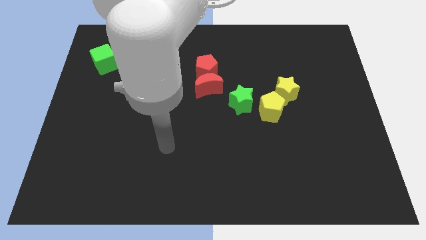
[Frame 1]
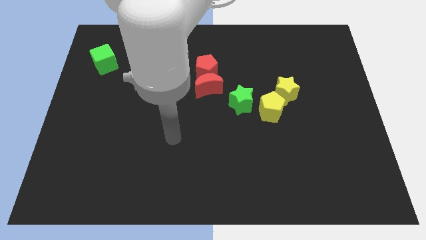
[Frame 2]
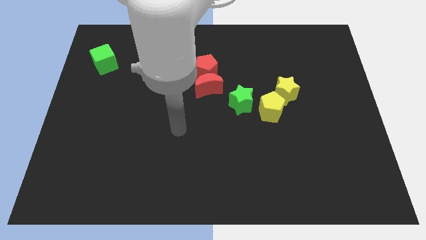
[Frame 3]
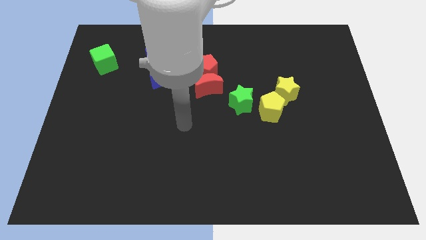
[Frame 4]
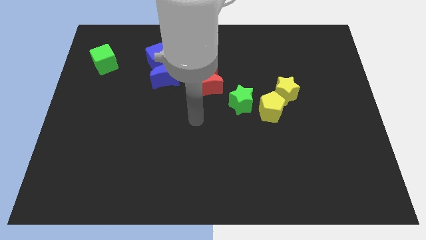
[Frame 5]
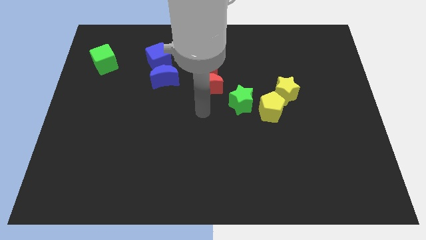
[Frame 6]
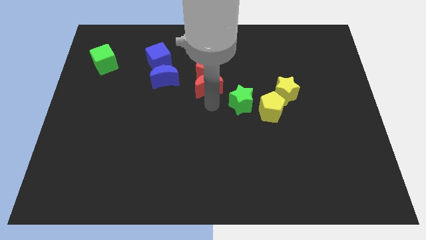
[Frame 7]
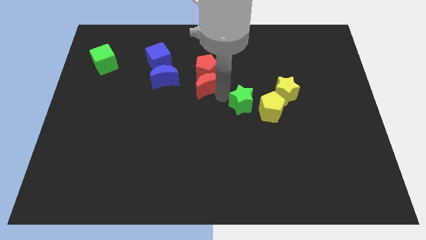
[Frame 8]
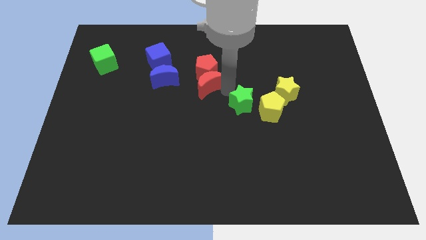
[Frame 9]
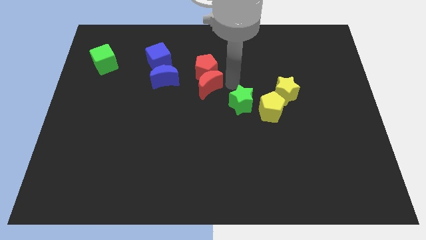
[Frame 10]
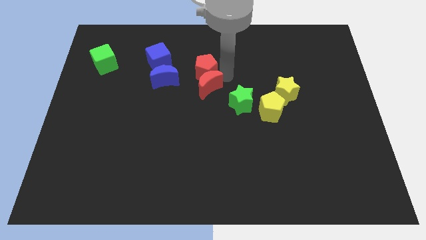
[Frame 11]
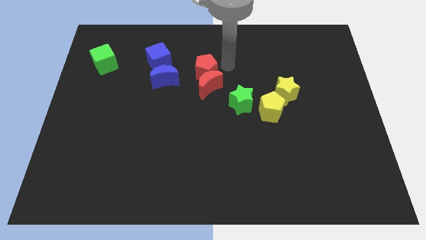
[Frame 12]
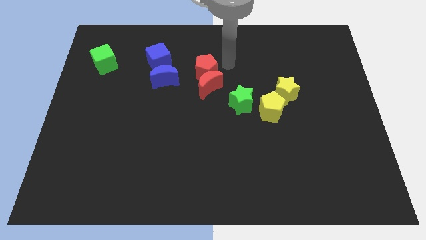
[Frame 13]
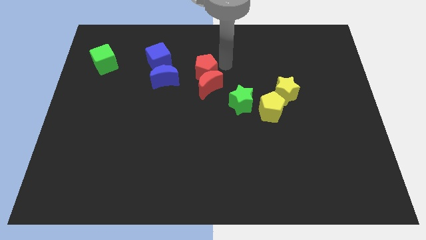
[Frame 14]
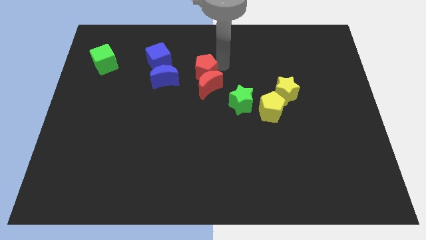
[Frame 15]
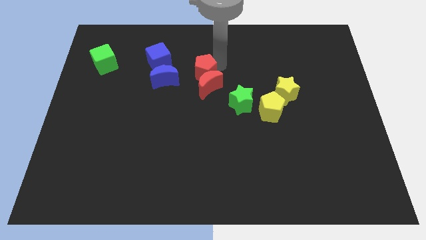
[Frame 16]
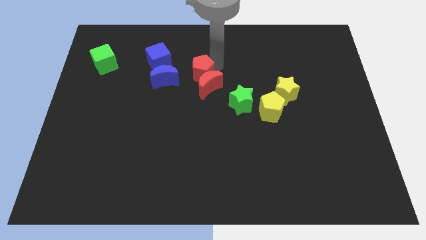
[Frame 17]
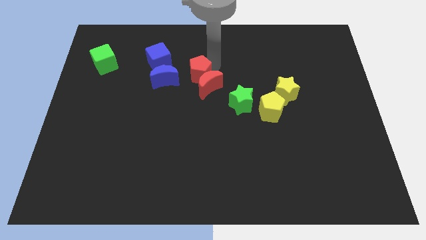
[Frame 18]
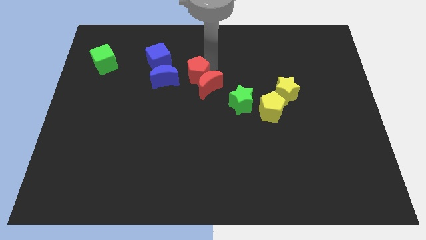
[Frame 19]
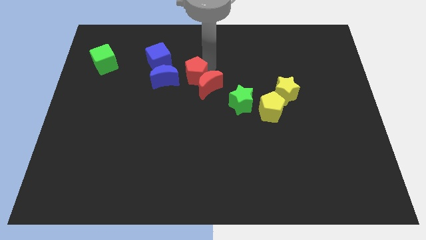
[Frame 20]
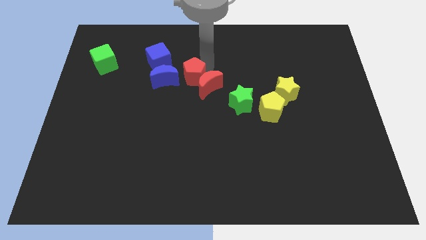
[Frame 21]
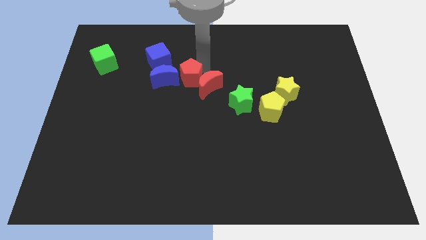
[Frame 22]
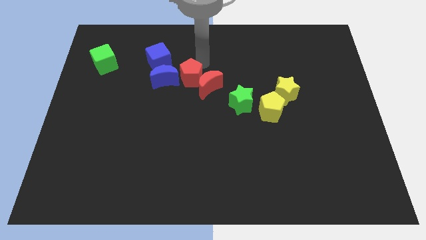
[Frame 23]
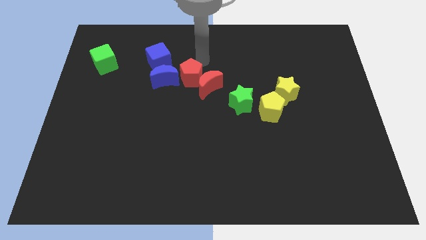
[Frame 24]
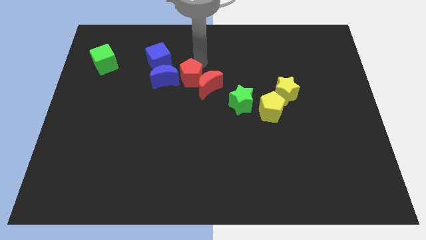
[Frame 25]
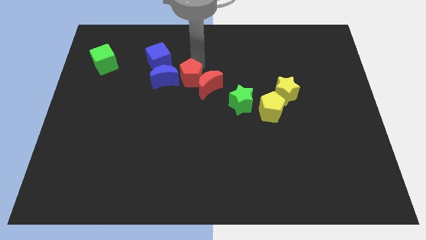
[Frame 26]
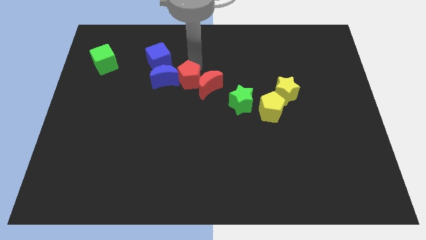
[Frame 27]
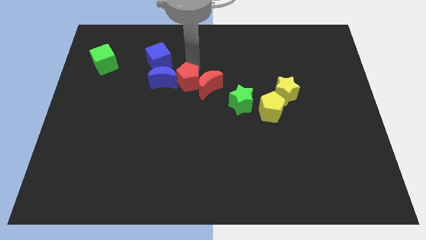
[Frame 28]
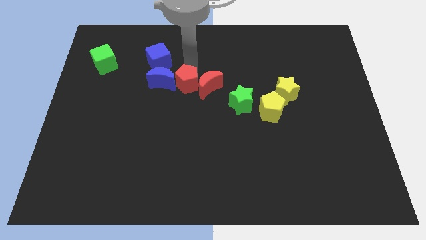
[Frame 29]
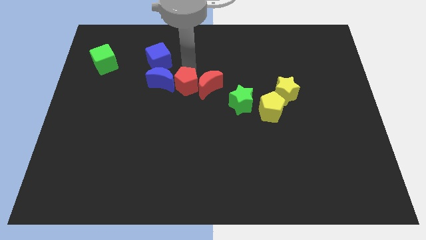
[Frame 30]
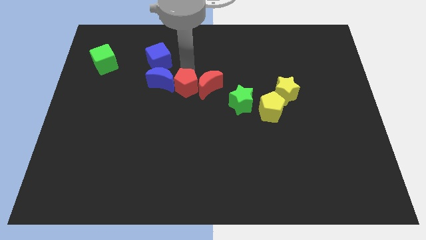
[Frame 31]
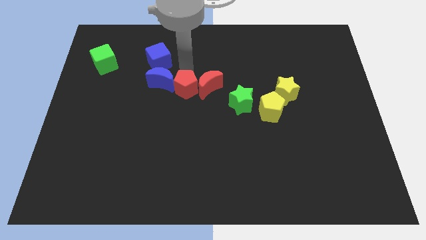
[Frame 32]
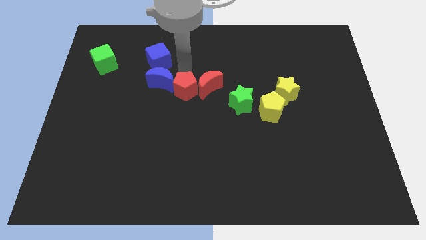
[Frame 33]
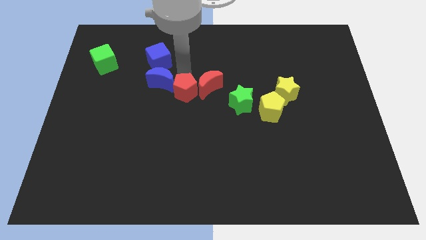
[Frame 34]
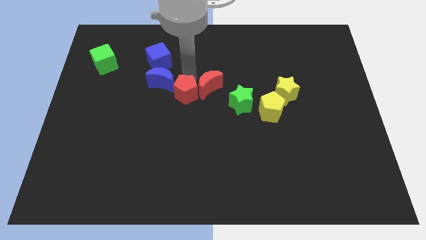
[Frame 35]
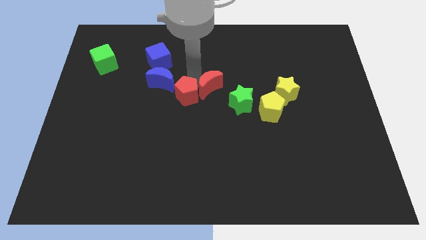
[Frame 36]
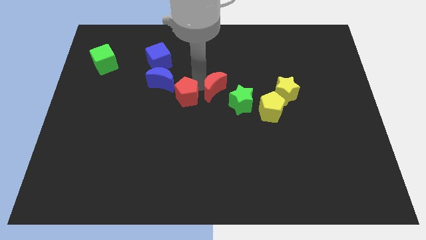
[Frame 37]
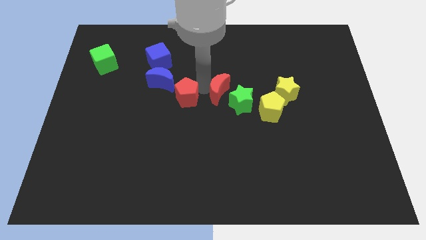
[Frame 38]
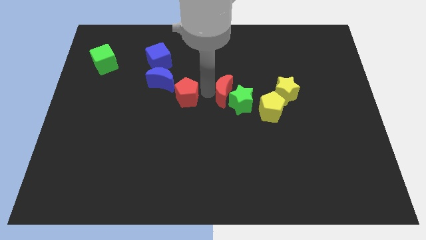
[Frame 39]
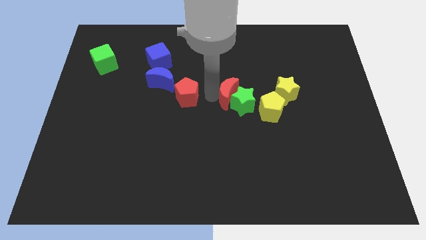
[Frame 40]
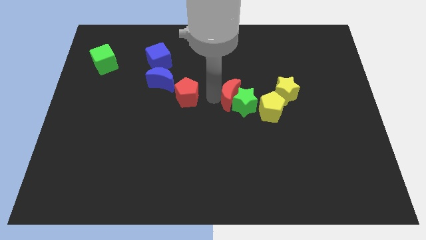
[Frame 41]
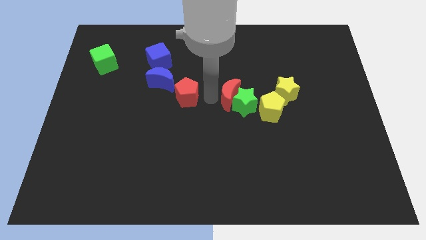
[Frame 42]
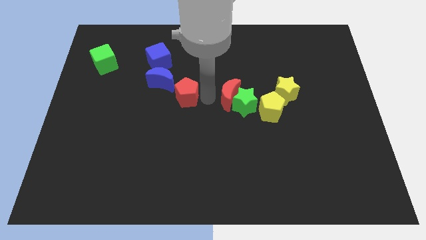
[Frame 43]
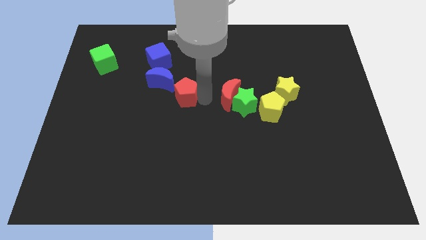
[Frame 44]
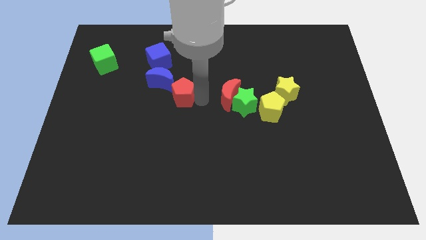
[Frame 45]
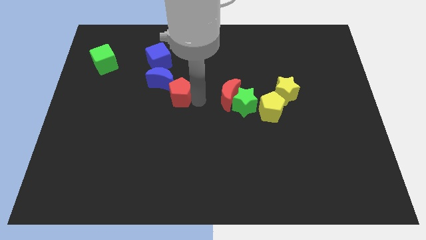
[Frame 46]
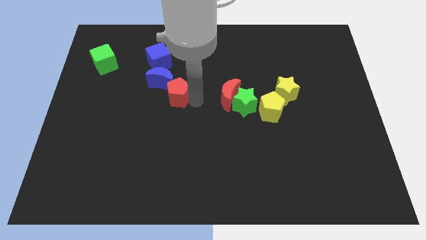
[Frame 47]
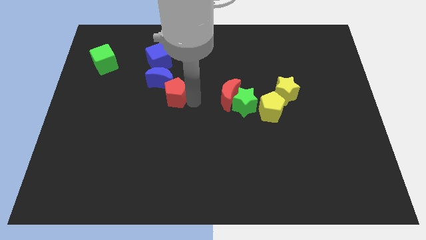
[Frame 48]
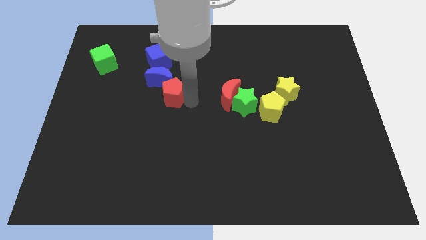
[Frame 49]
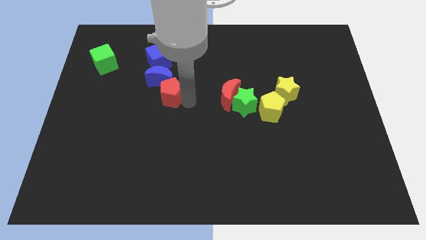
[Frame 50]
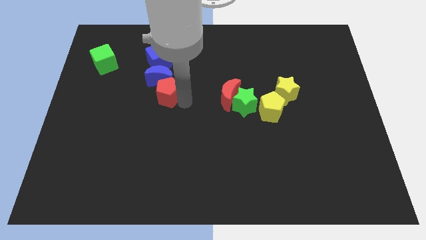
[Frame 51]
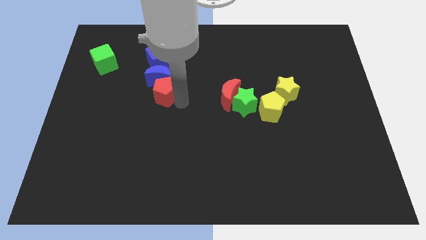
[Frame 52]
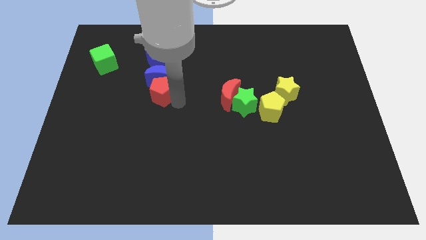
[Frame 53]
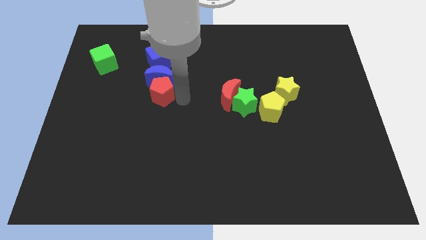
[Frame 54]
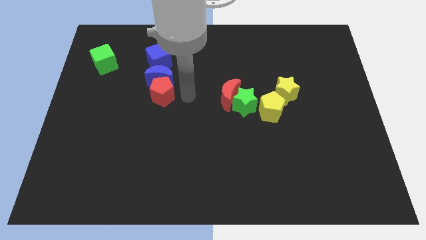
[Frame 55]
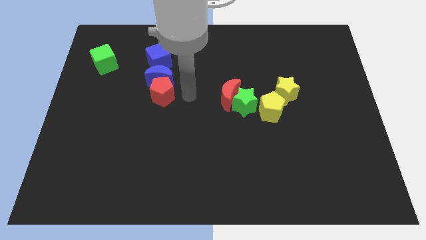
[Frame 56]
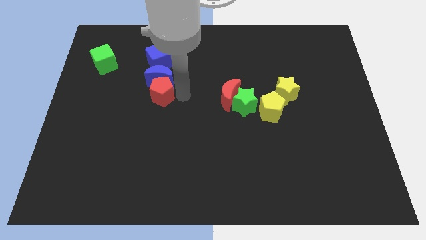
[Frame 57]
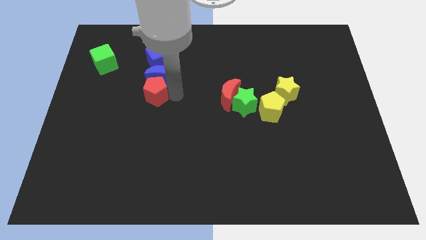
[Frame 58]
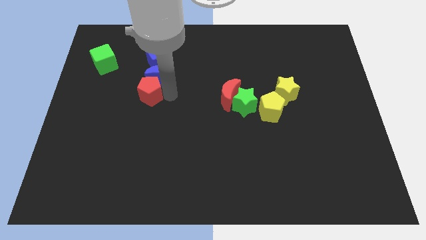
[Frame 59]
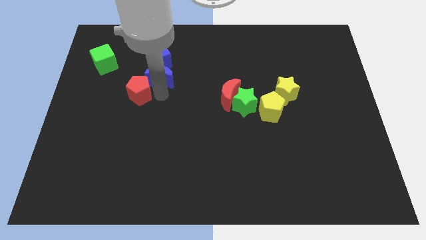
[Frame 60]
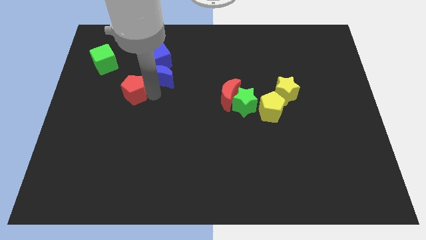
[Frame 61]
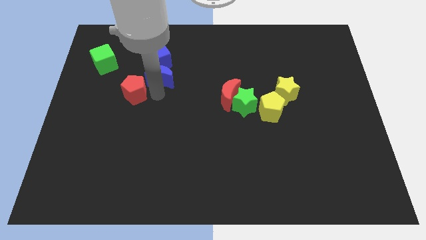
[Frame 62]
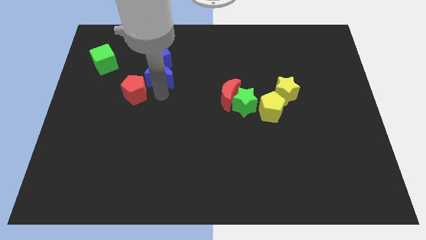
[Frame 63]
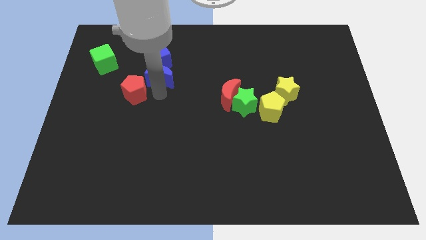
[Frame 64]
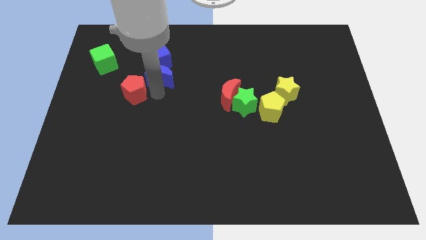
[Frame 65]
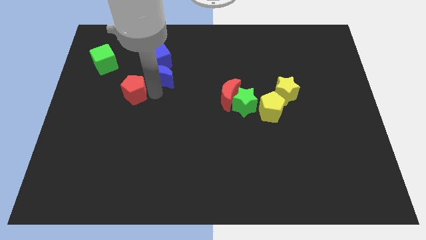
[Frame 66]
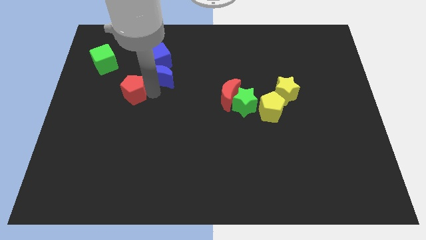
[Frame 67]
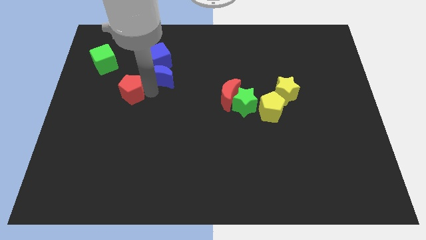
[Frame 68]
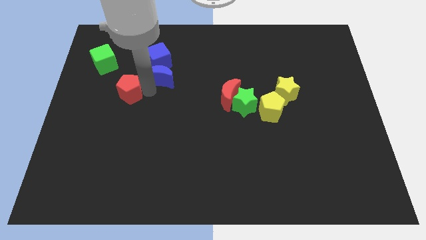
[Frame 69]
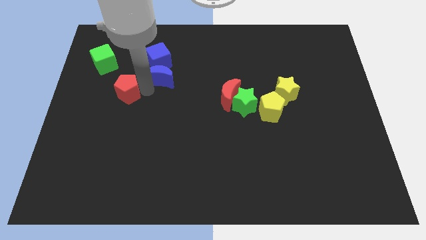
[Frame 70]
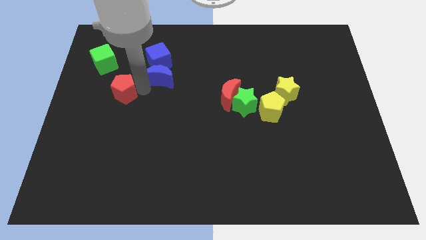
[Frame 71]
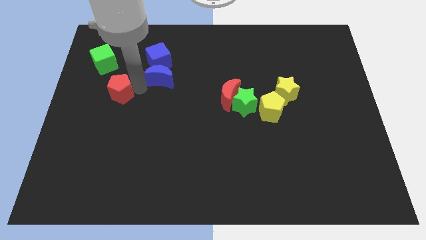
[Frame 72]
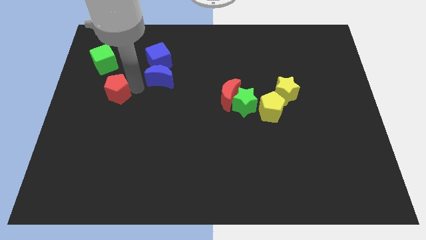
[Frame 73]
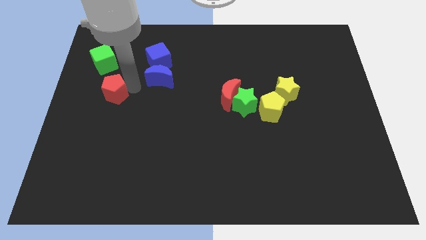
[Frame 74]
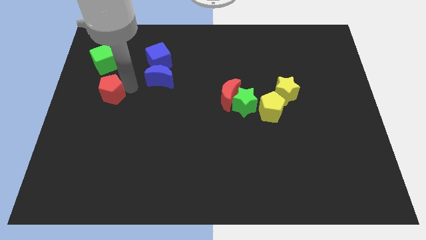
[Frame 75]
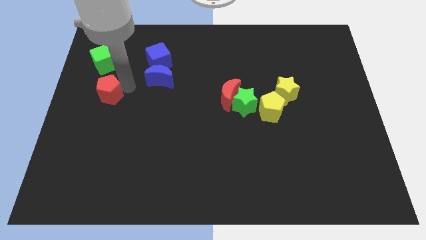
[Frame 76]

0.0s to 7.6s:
move the red pentagon to the left side of the board
